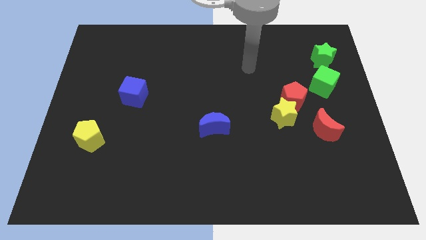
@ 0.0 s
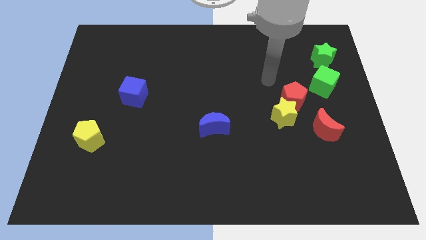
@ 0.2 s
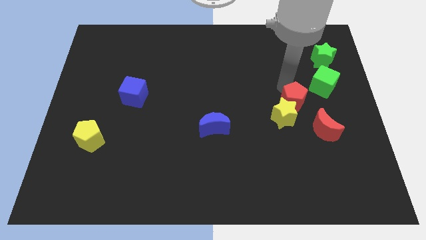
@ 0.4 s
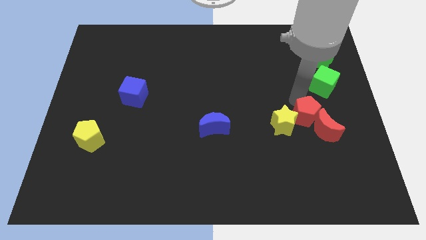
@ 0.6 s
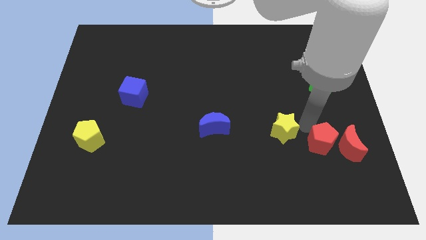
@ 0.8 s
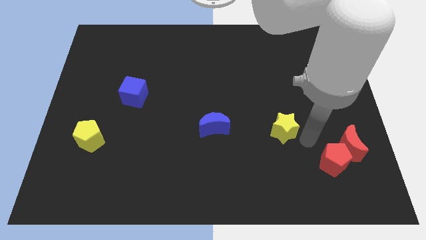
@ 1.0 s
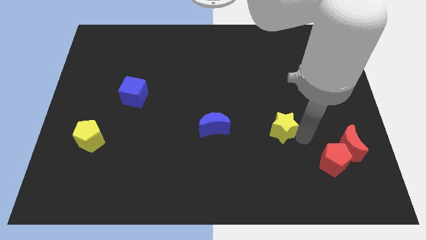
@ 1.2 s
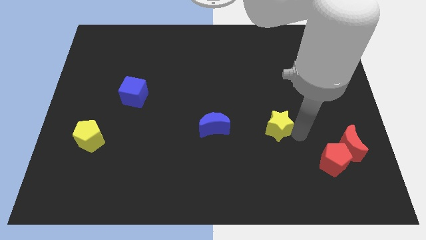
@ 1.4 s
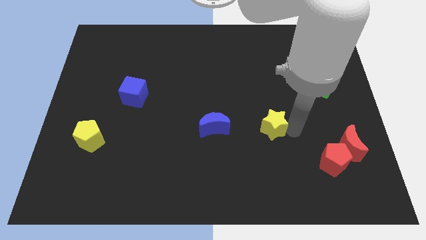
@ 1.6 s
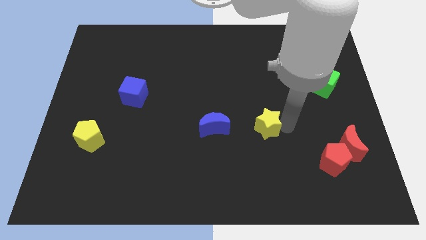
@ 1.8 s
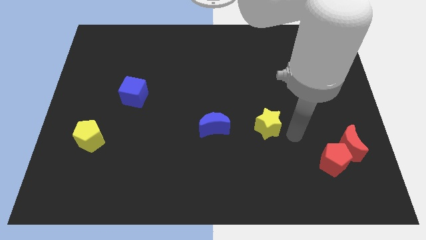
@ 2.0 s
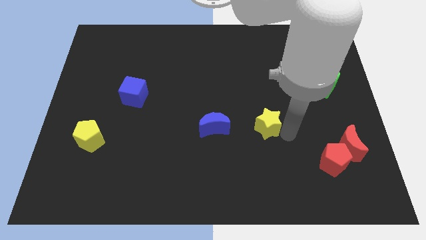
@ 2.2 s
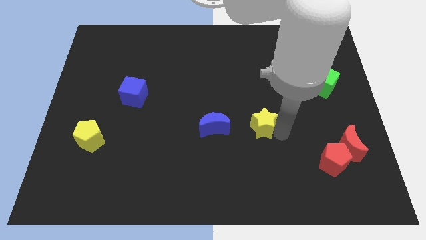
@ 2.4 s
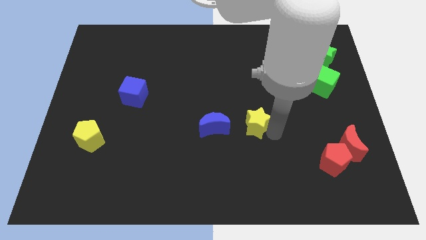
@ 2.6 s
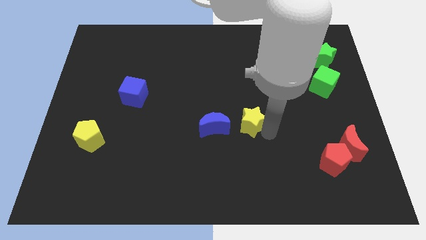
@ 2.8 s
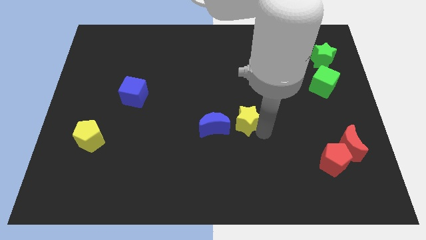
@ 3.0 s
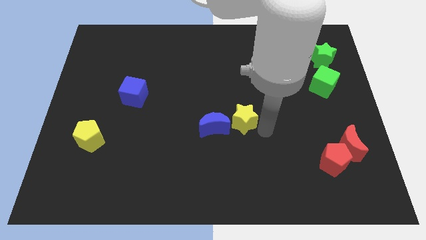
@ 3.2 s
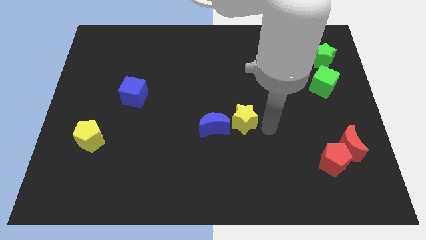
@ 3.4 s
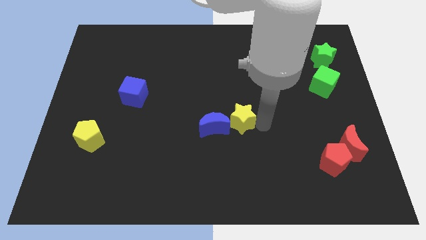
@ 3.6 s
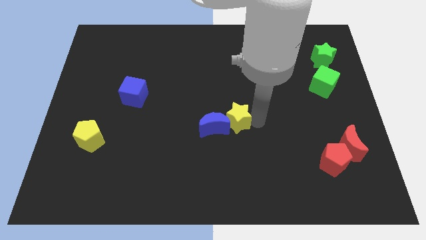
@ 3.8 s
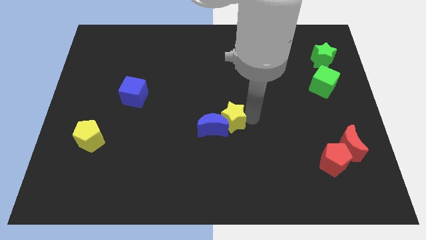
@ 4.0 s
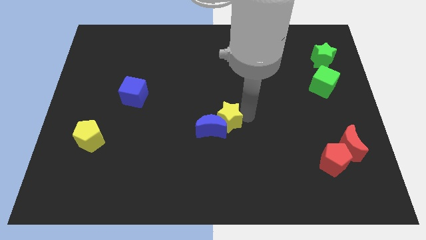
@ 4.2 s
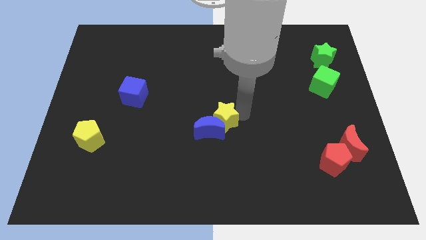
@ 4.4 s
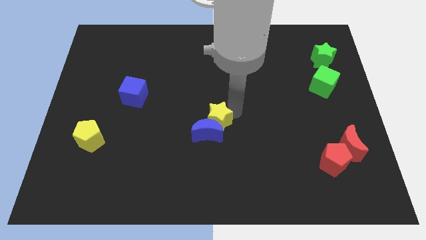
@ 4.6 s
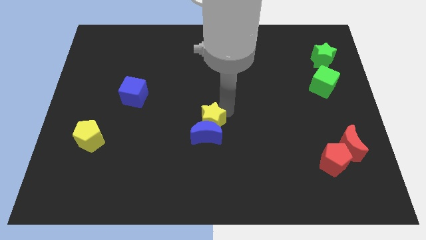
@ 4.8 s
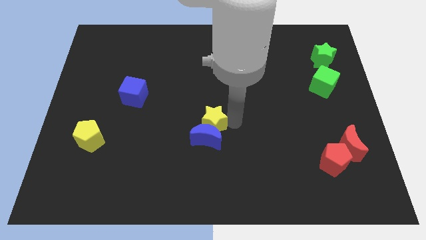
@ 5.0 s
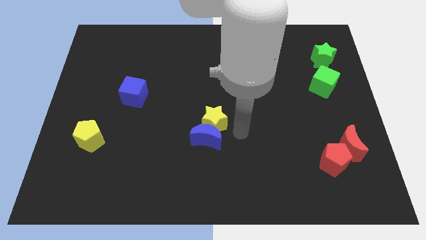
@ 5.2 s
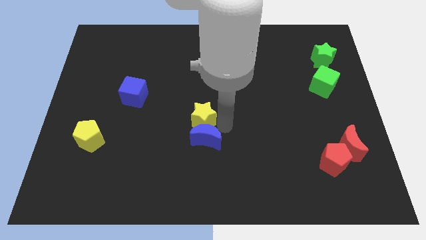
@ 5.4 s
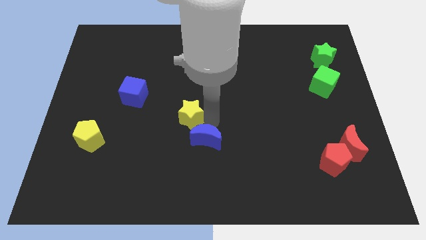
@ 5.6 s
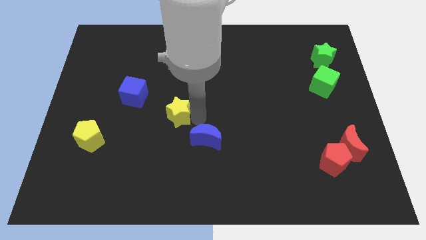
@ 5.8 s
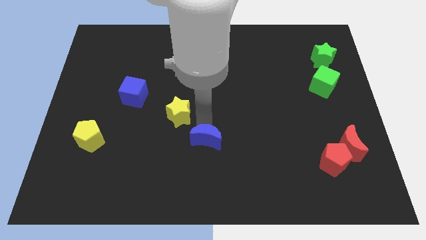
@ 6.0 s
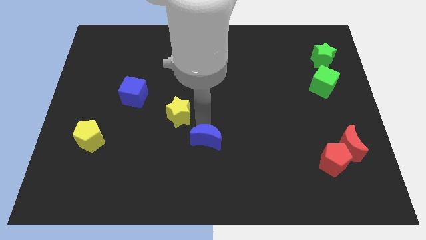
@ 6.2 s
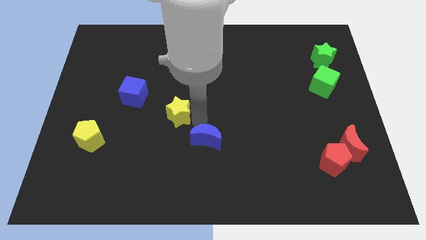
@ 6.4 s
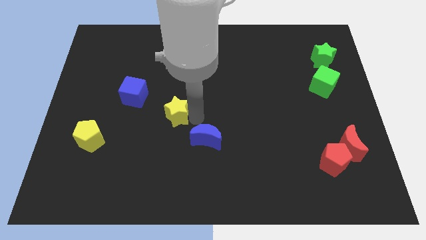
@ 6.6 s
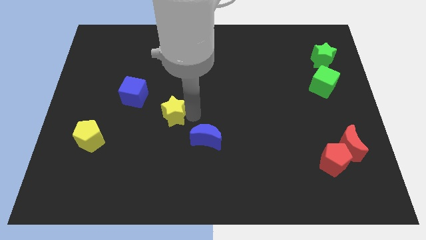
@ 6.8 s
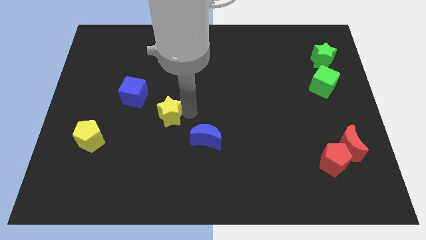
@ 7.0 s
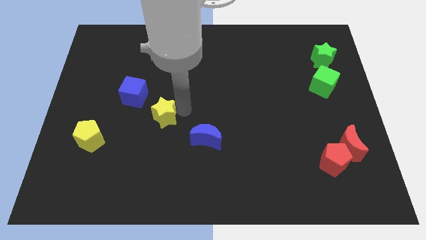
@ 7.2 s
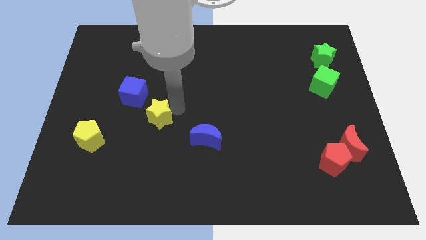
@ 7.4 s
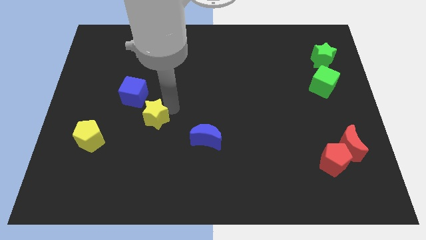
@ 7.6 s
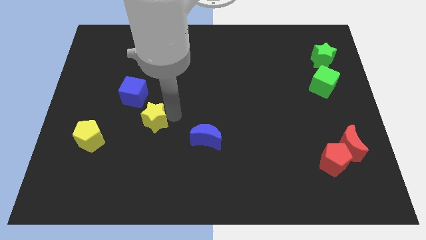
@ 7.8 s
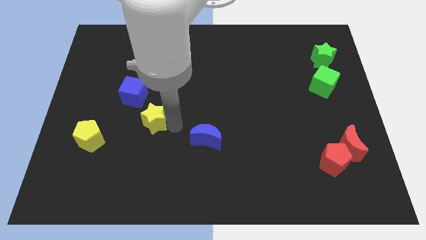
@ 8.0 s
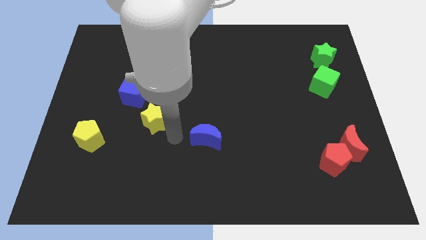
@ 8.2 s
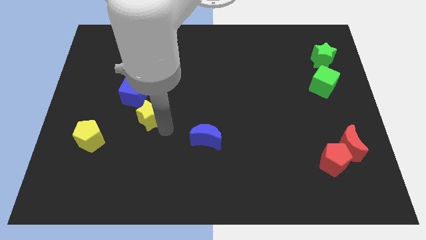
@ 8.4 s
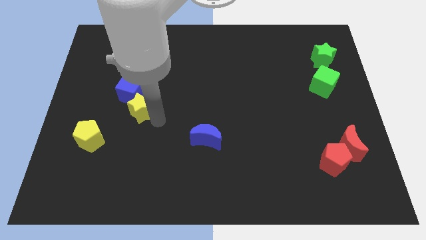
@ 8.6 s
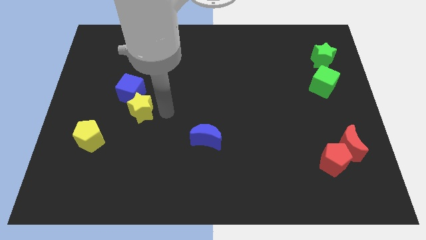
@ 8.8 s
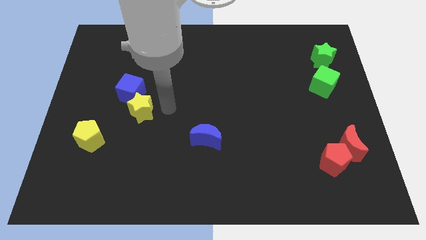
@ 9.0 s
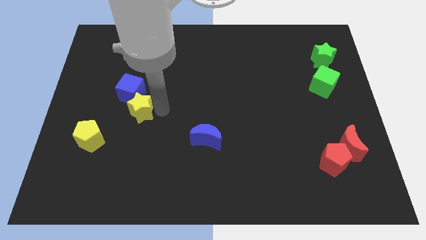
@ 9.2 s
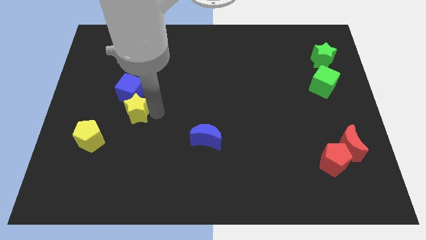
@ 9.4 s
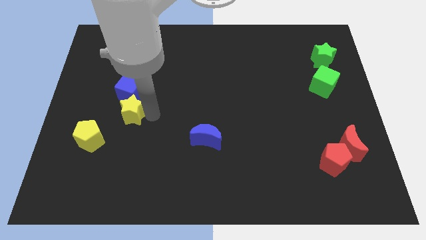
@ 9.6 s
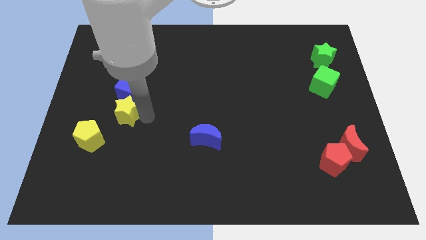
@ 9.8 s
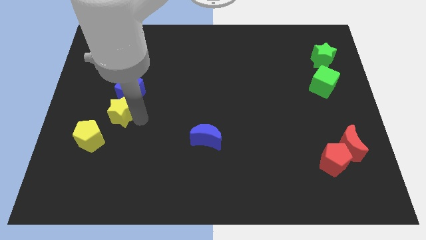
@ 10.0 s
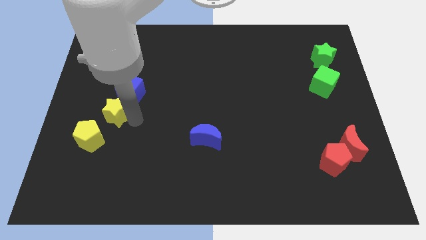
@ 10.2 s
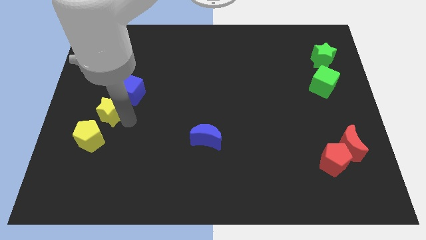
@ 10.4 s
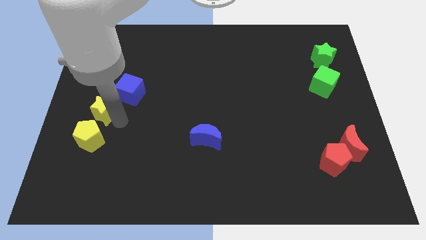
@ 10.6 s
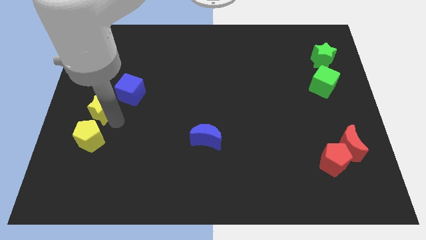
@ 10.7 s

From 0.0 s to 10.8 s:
push the yellow star to the left side of the board

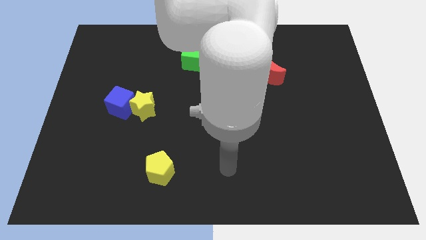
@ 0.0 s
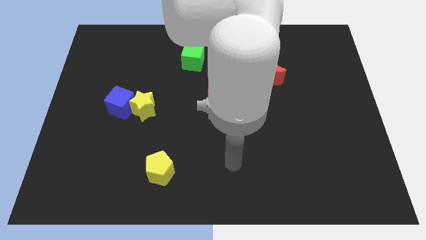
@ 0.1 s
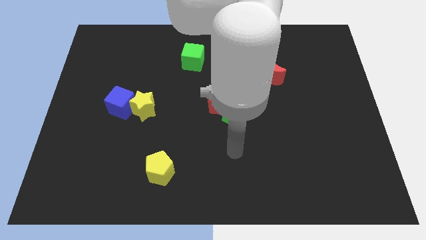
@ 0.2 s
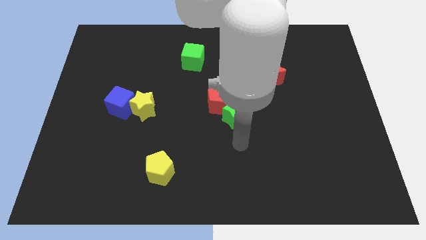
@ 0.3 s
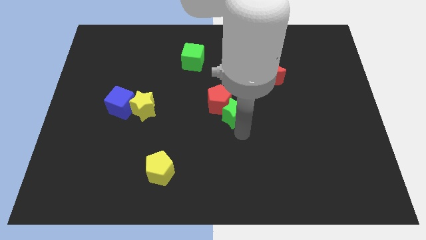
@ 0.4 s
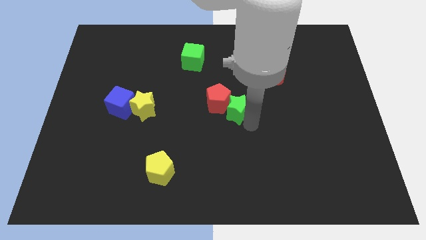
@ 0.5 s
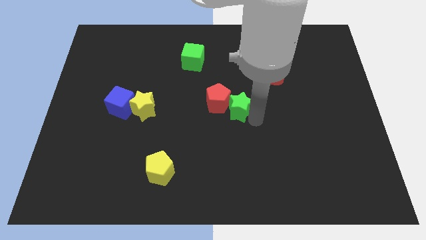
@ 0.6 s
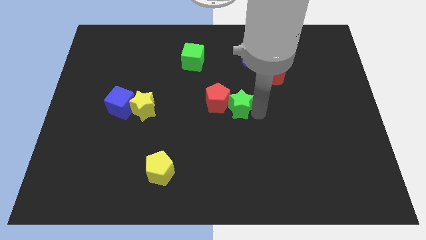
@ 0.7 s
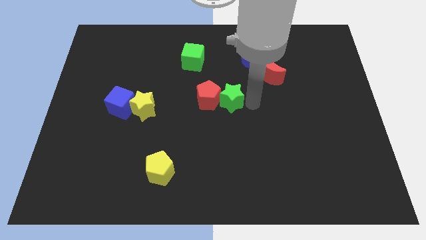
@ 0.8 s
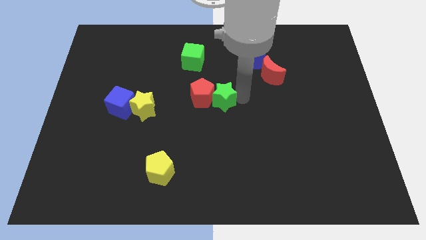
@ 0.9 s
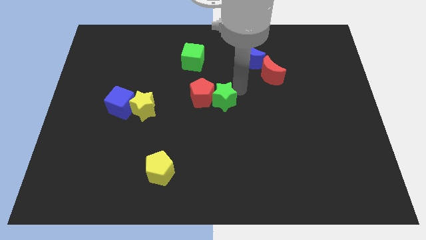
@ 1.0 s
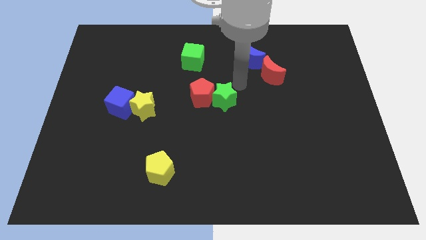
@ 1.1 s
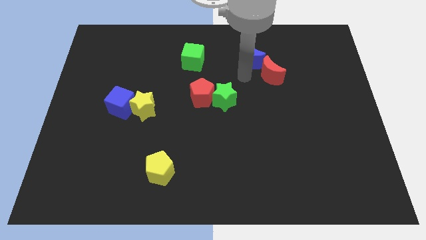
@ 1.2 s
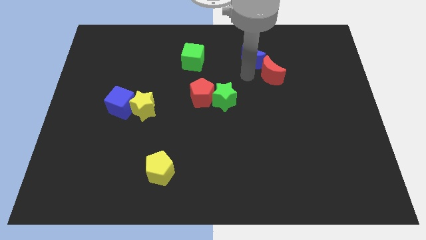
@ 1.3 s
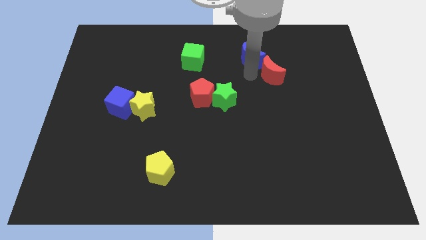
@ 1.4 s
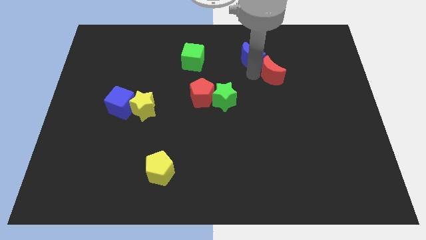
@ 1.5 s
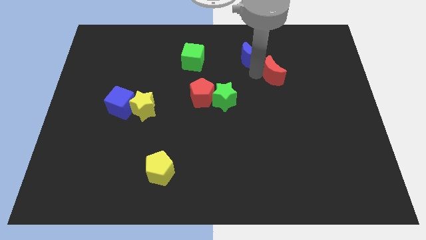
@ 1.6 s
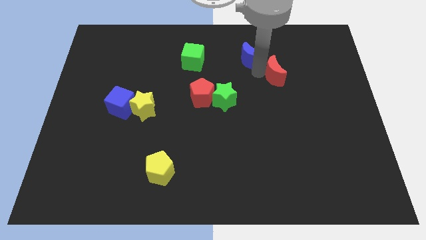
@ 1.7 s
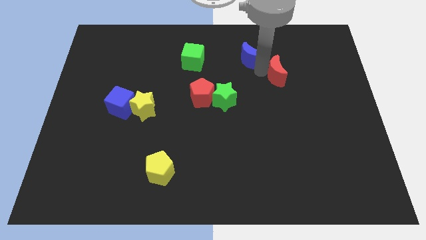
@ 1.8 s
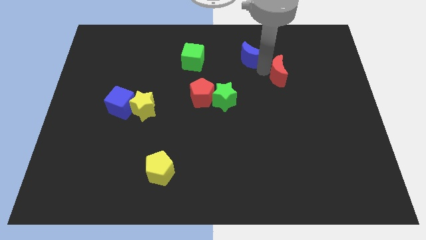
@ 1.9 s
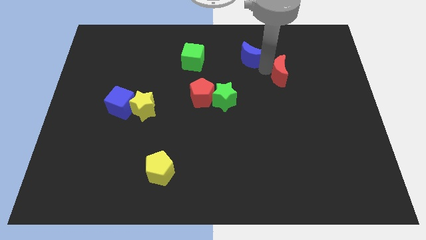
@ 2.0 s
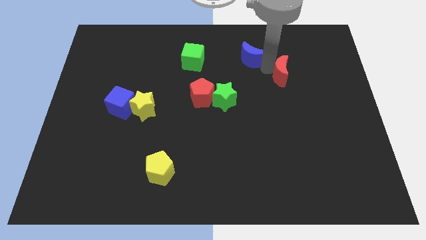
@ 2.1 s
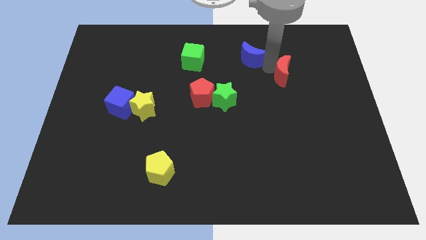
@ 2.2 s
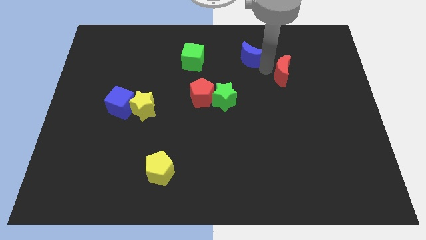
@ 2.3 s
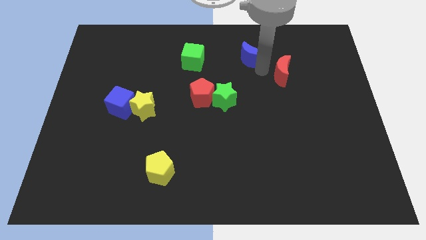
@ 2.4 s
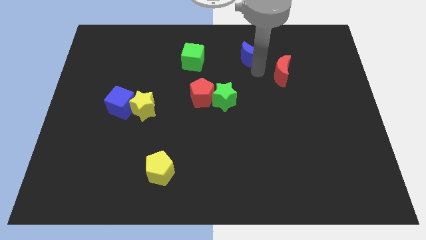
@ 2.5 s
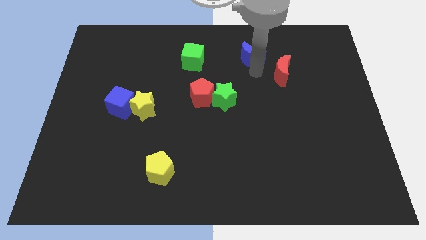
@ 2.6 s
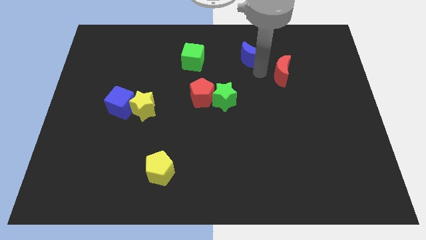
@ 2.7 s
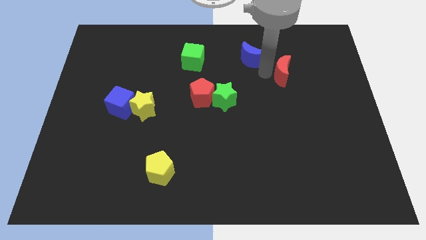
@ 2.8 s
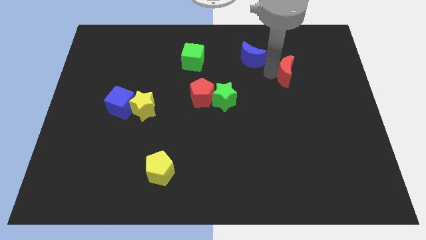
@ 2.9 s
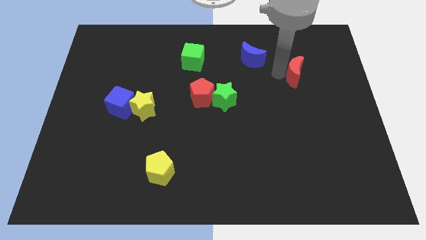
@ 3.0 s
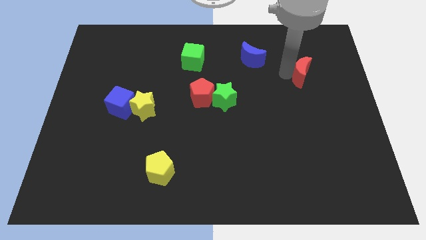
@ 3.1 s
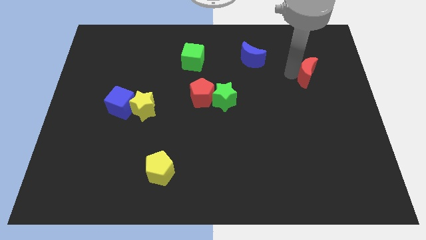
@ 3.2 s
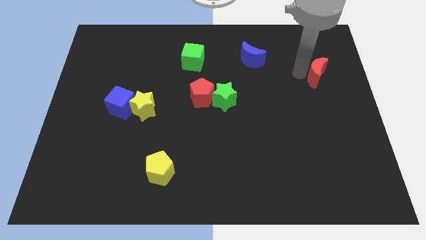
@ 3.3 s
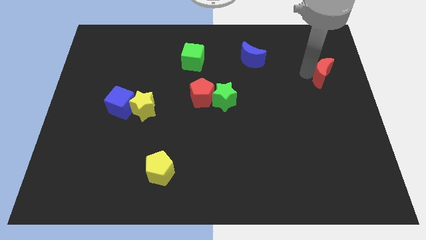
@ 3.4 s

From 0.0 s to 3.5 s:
push the red moon to the center right
